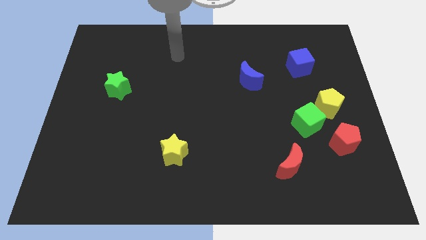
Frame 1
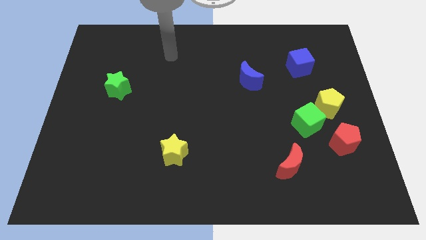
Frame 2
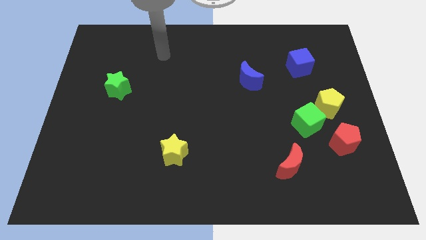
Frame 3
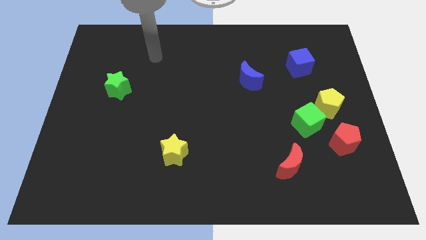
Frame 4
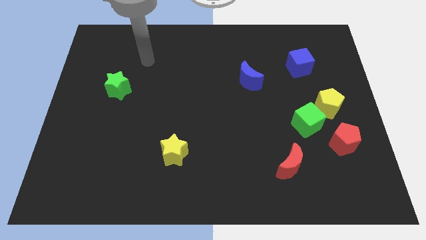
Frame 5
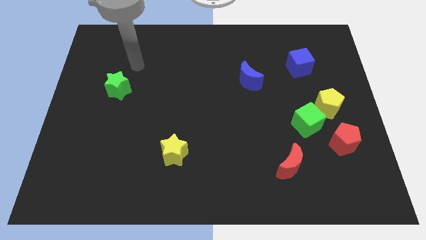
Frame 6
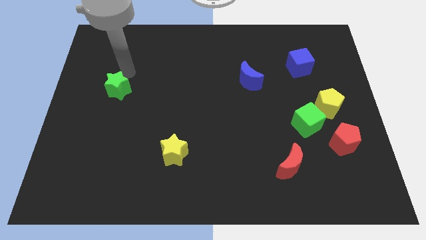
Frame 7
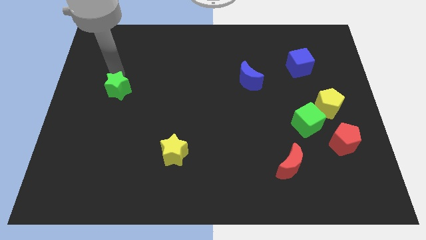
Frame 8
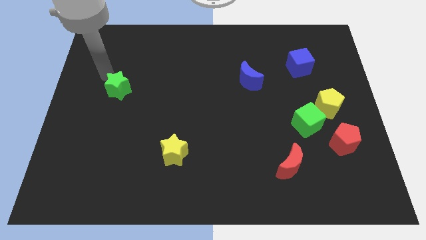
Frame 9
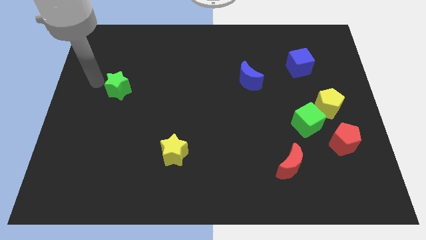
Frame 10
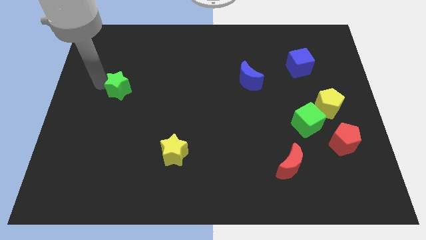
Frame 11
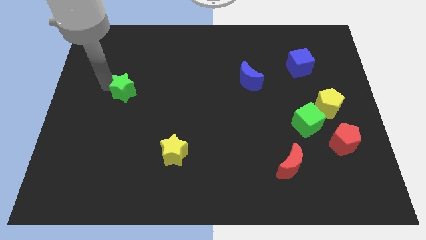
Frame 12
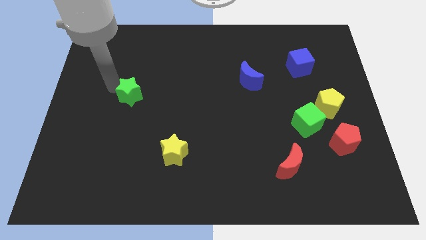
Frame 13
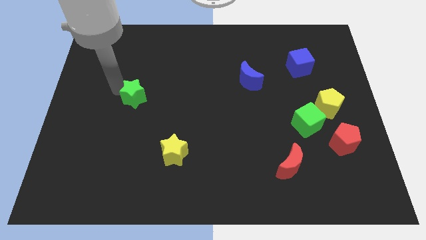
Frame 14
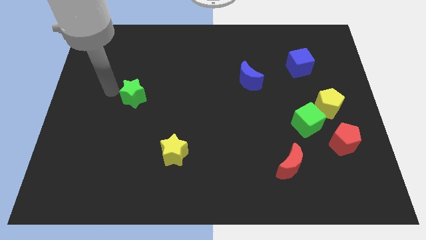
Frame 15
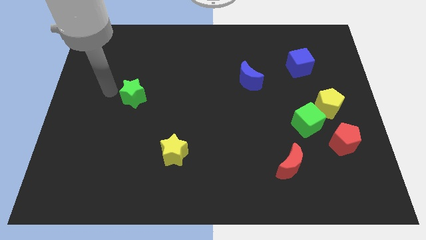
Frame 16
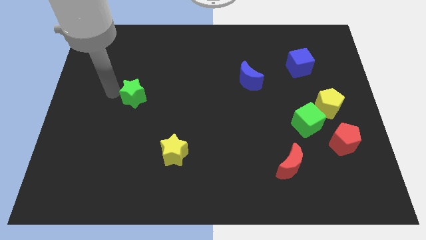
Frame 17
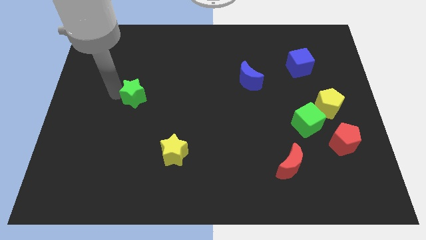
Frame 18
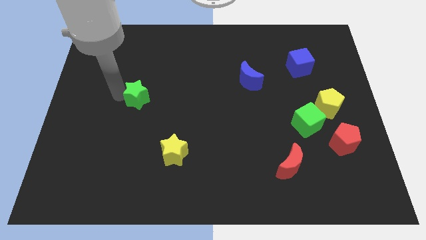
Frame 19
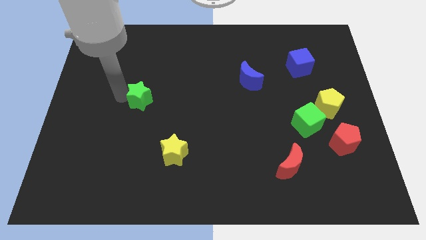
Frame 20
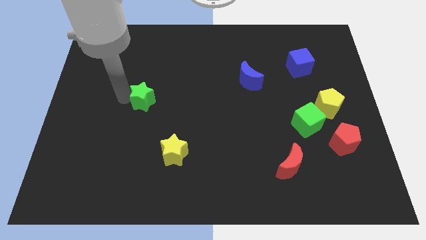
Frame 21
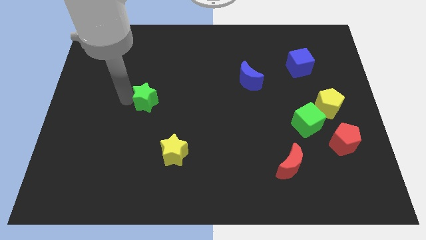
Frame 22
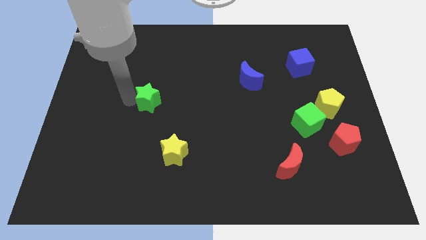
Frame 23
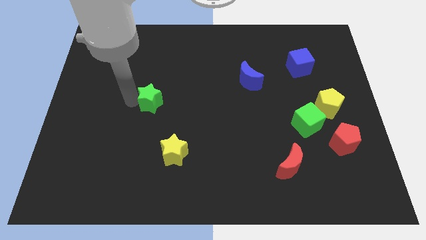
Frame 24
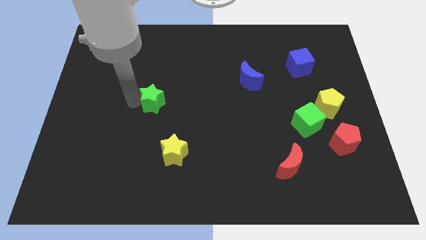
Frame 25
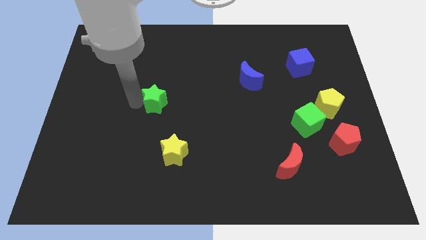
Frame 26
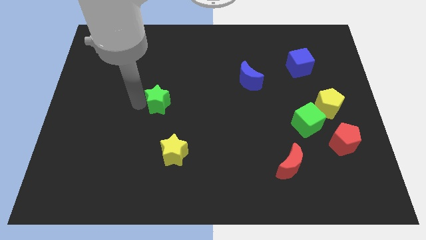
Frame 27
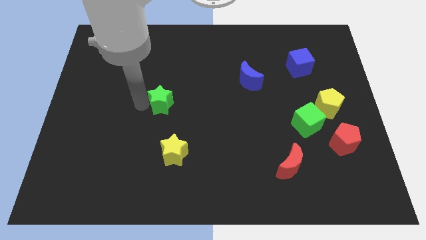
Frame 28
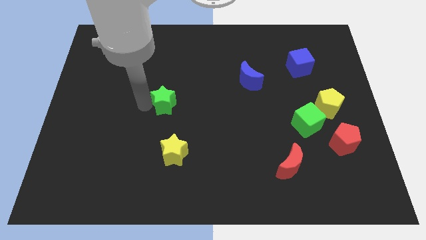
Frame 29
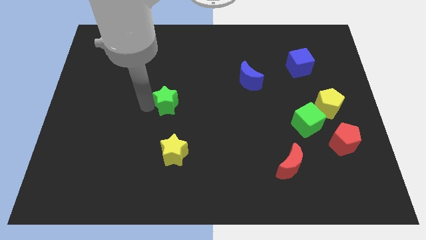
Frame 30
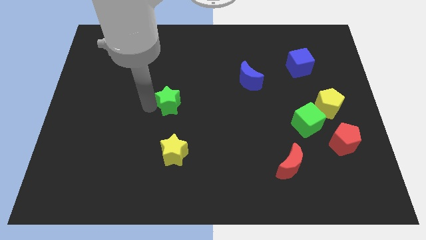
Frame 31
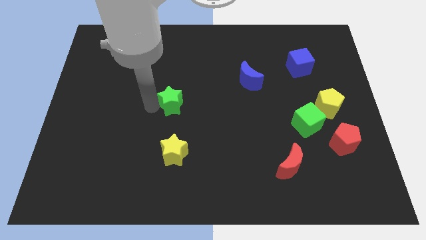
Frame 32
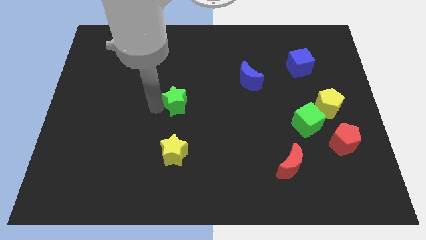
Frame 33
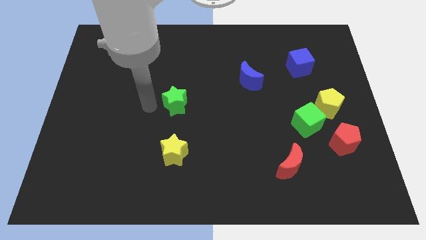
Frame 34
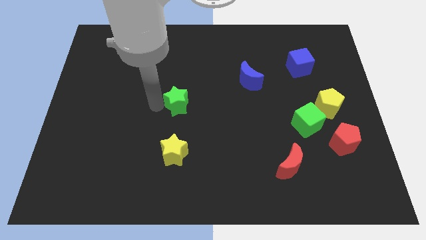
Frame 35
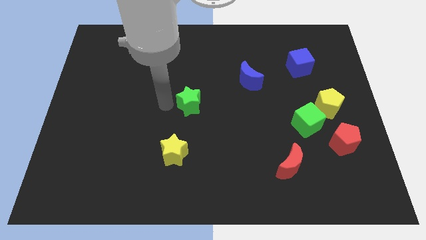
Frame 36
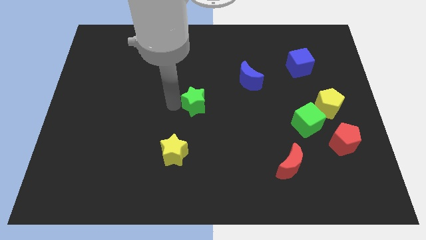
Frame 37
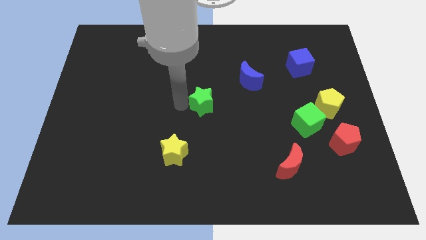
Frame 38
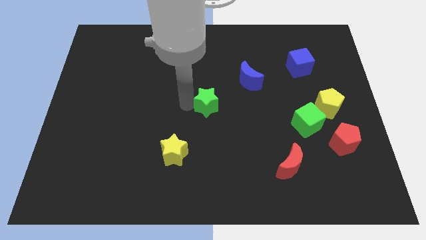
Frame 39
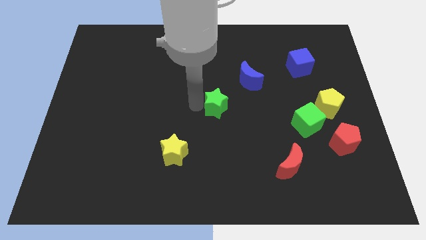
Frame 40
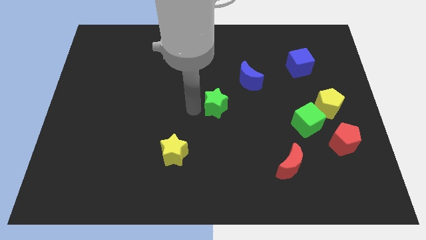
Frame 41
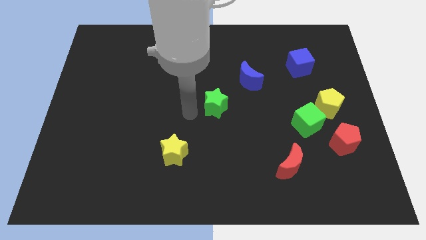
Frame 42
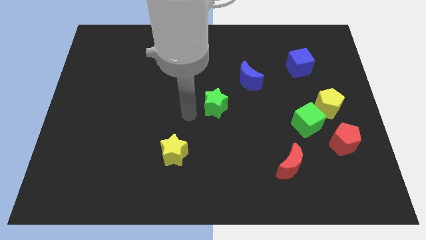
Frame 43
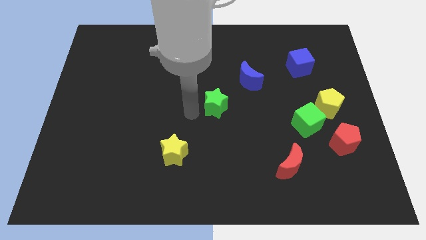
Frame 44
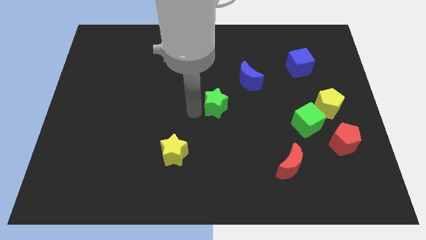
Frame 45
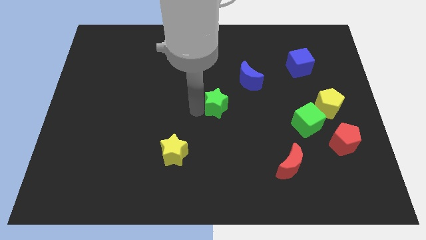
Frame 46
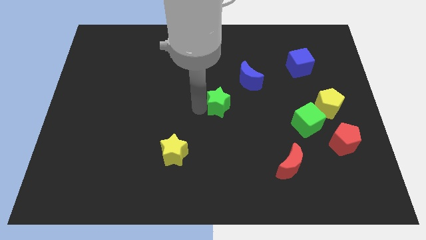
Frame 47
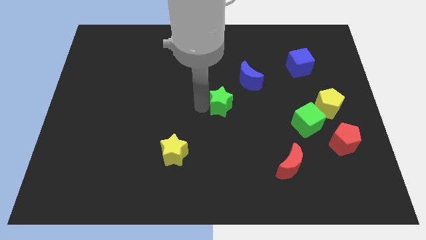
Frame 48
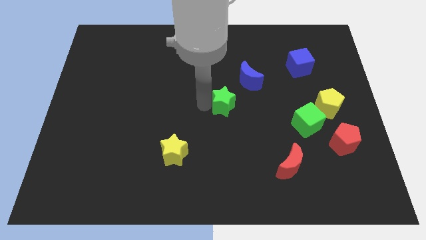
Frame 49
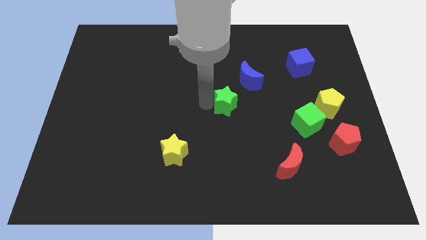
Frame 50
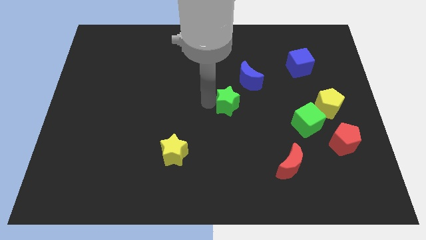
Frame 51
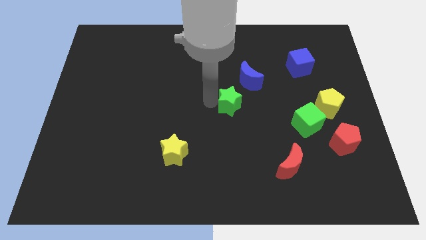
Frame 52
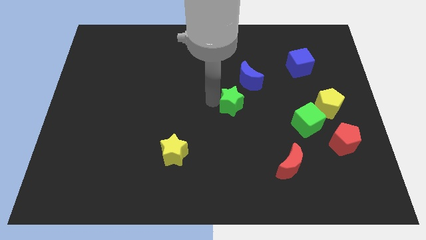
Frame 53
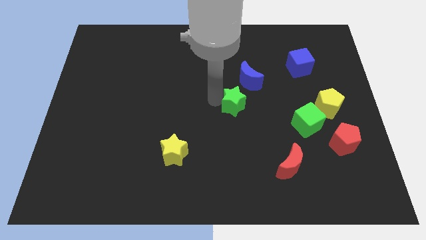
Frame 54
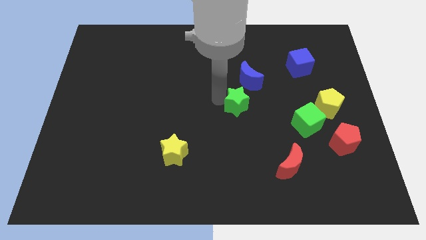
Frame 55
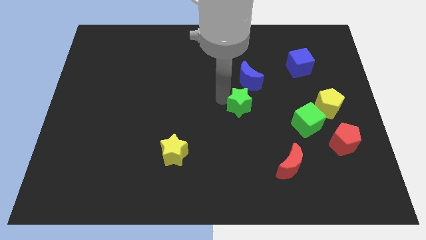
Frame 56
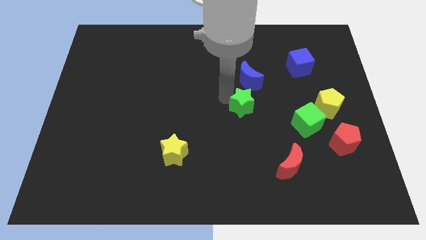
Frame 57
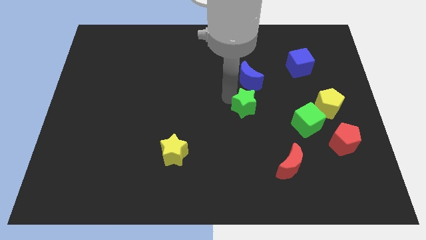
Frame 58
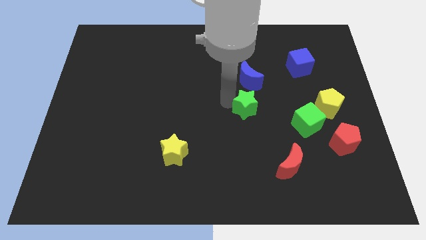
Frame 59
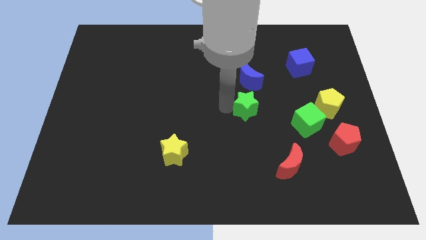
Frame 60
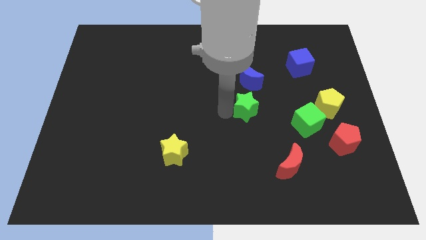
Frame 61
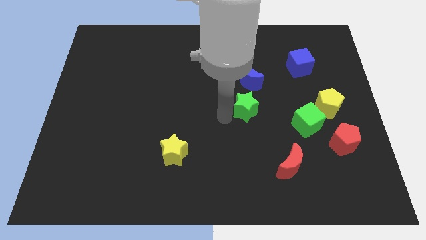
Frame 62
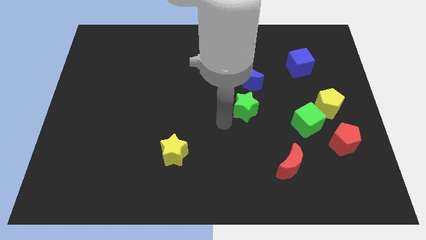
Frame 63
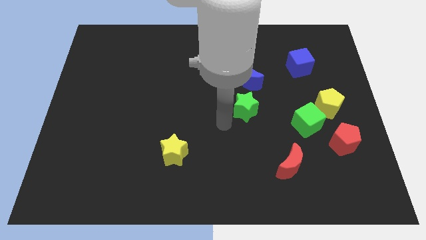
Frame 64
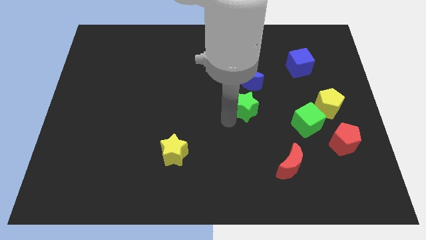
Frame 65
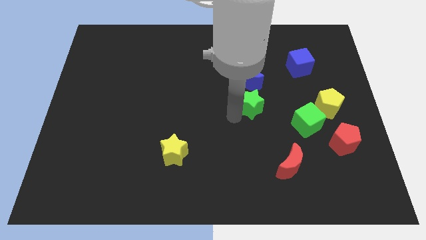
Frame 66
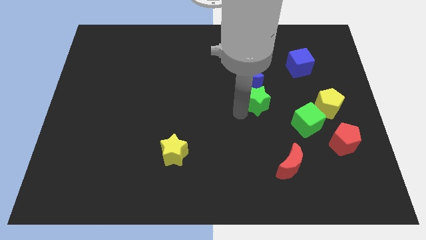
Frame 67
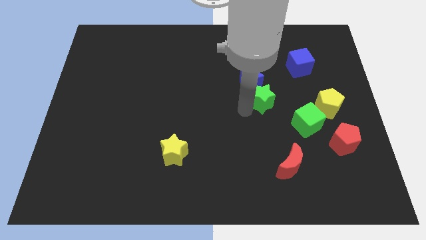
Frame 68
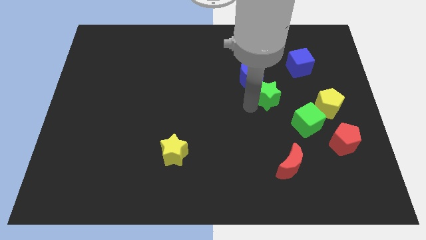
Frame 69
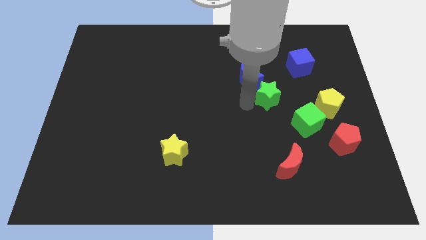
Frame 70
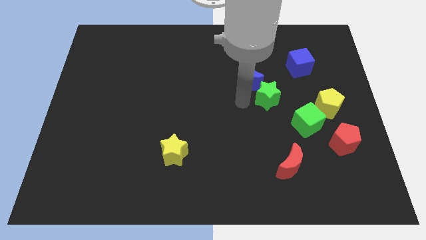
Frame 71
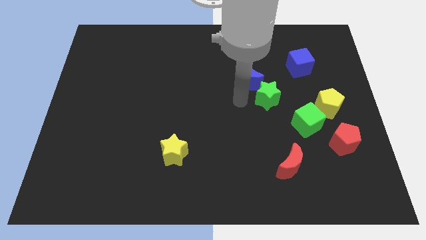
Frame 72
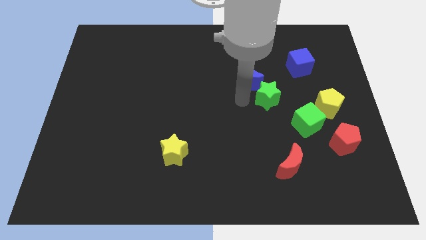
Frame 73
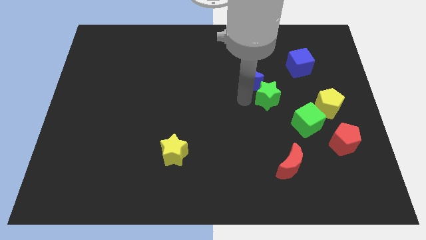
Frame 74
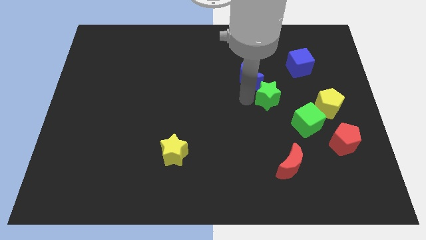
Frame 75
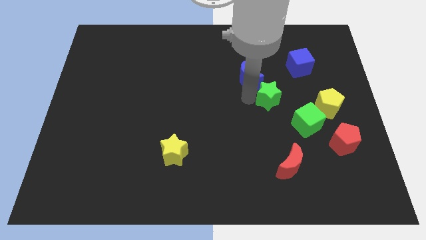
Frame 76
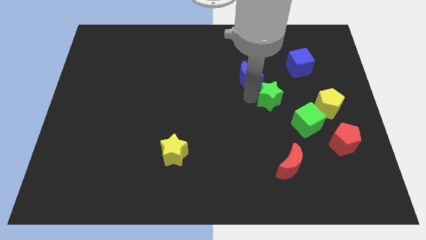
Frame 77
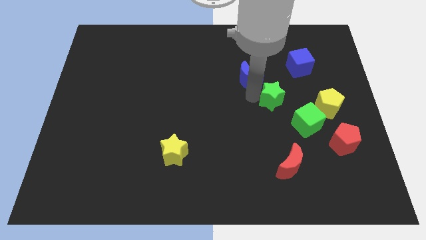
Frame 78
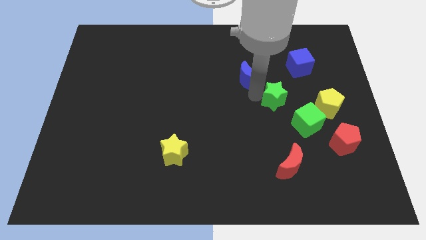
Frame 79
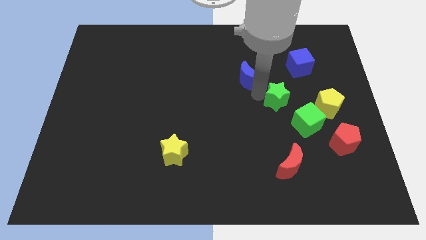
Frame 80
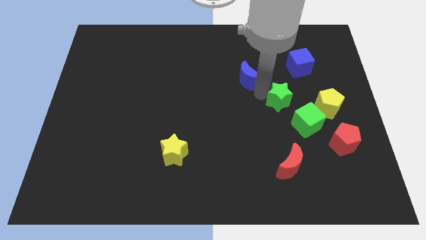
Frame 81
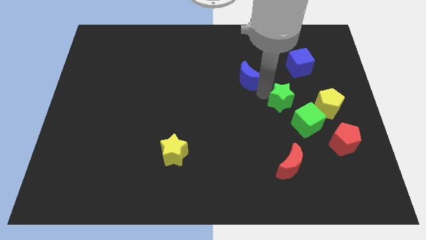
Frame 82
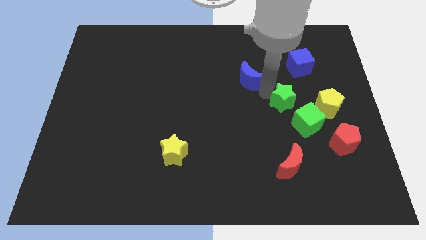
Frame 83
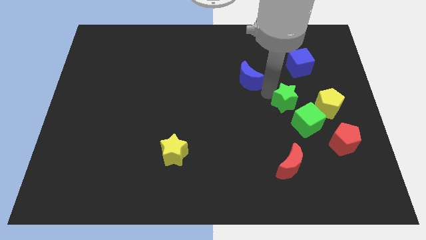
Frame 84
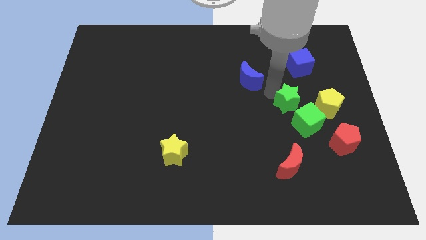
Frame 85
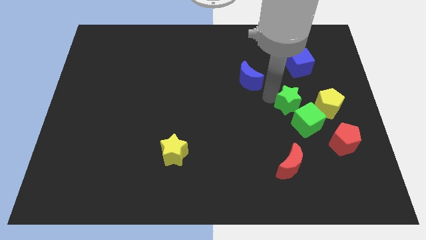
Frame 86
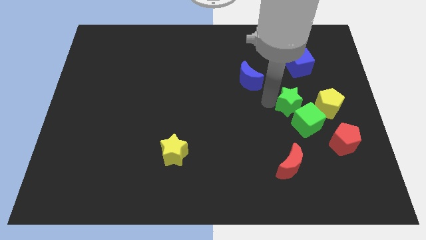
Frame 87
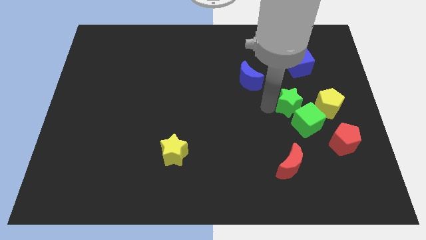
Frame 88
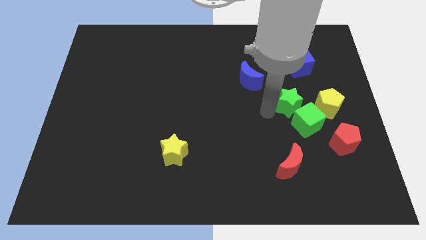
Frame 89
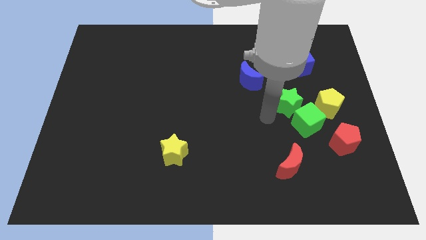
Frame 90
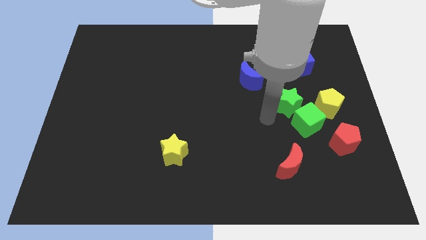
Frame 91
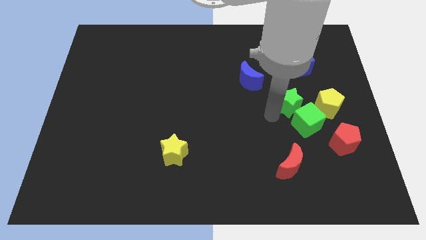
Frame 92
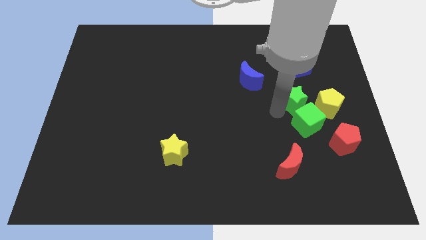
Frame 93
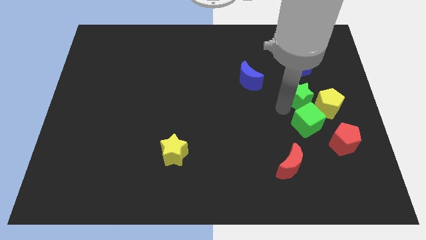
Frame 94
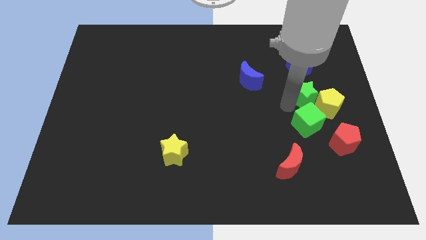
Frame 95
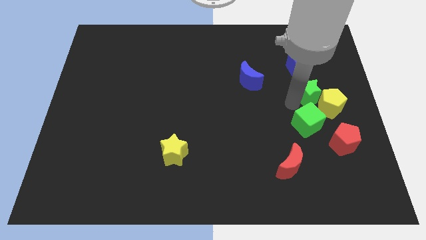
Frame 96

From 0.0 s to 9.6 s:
put the green star to the top right of the green cube
